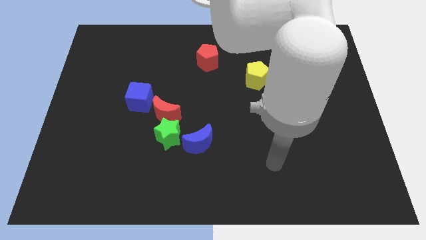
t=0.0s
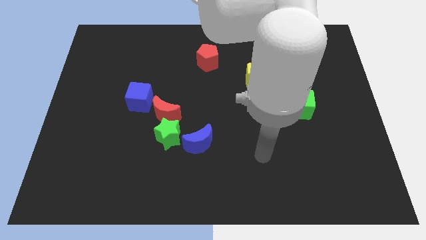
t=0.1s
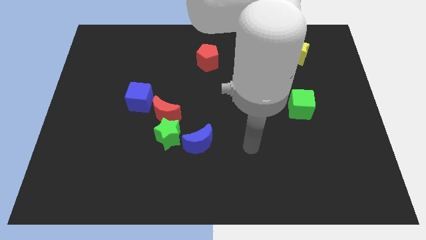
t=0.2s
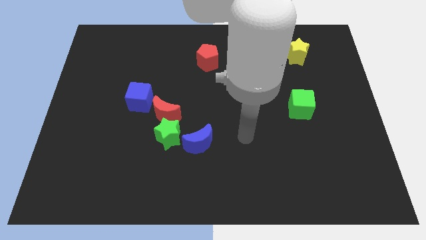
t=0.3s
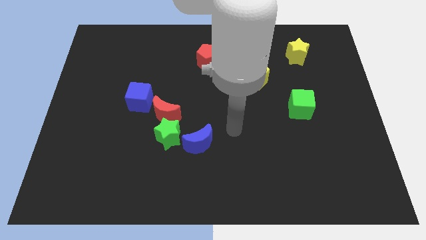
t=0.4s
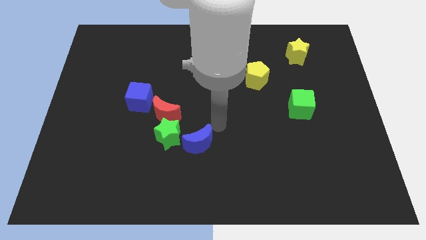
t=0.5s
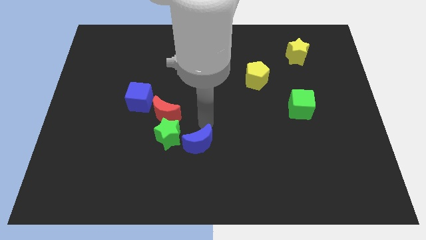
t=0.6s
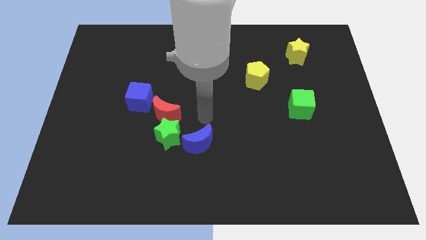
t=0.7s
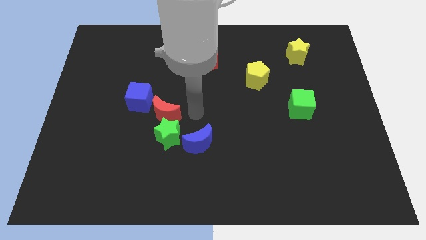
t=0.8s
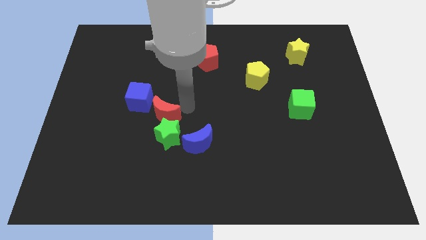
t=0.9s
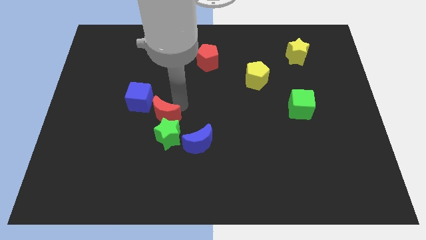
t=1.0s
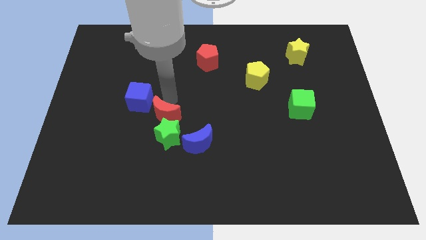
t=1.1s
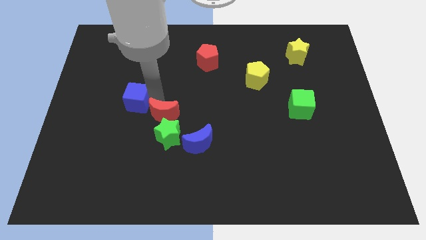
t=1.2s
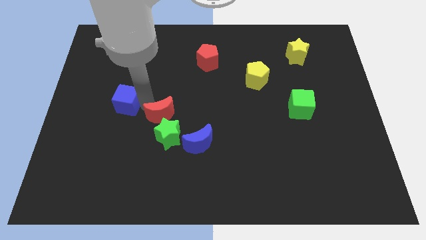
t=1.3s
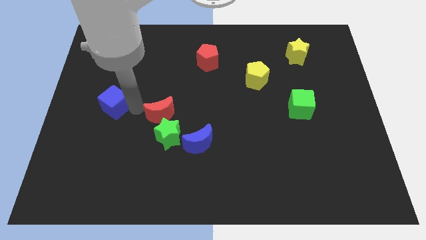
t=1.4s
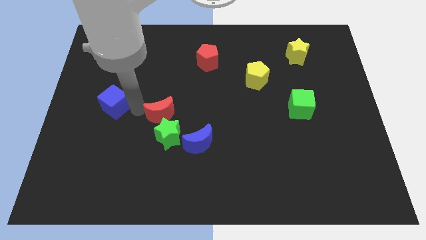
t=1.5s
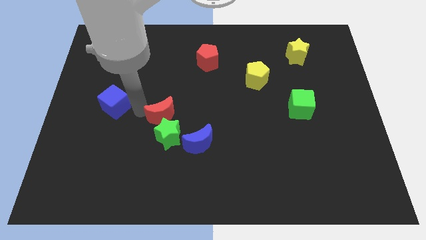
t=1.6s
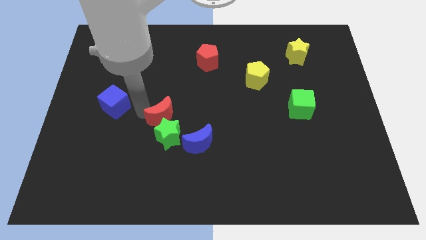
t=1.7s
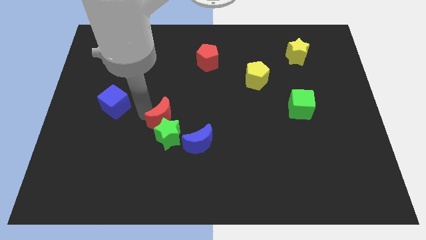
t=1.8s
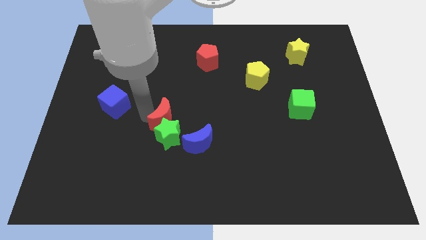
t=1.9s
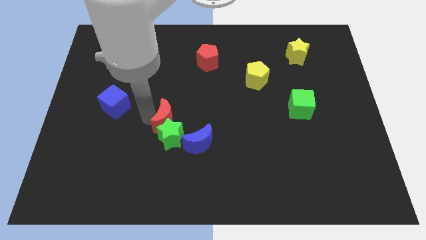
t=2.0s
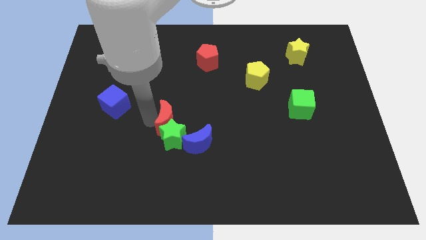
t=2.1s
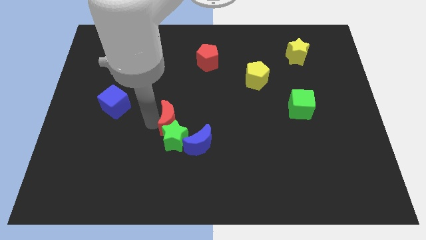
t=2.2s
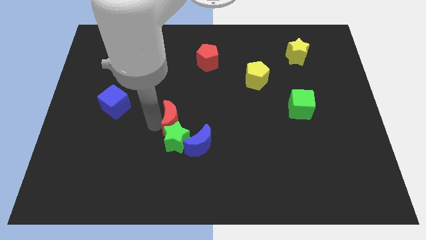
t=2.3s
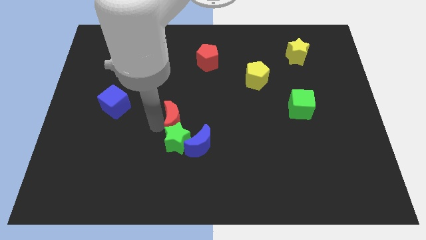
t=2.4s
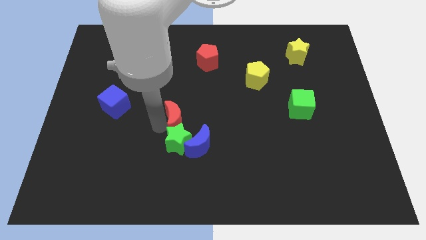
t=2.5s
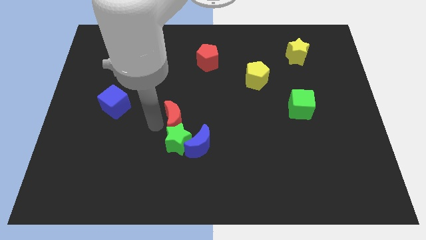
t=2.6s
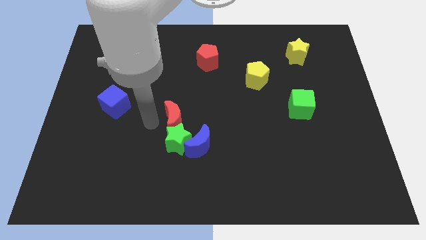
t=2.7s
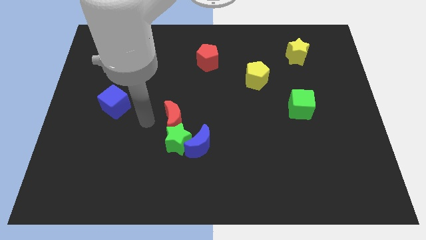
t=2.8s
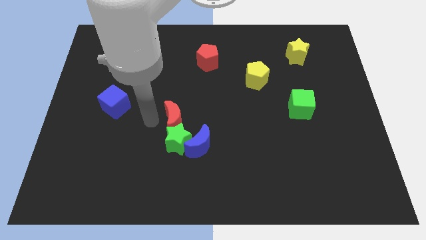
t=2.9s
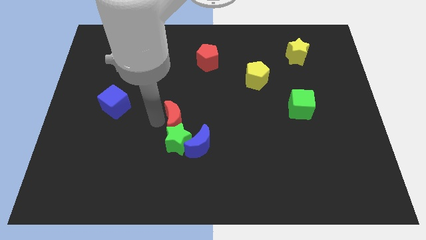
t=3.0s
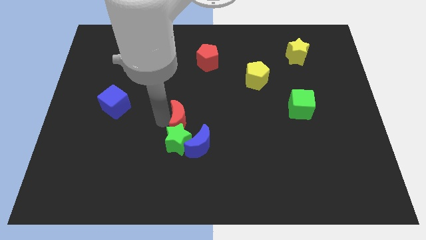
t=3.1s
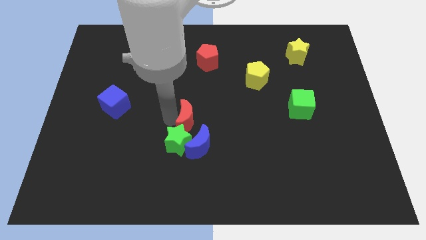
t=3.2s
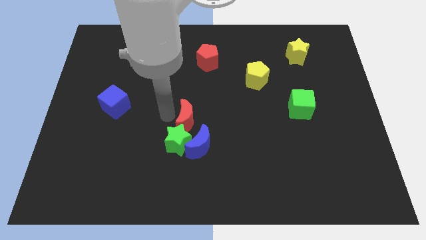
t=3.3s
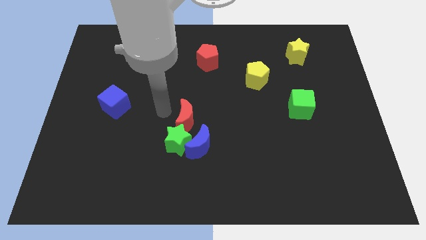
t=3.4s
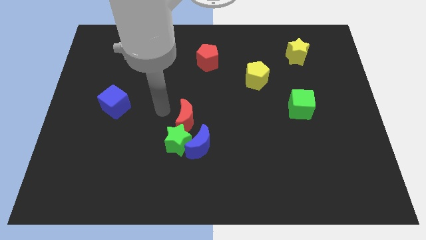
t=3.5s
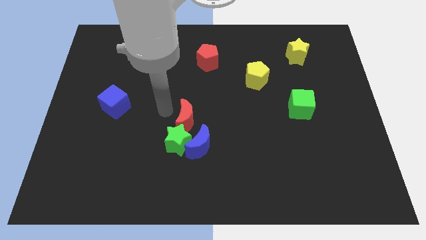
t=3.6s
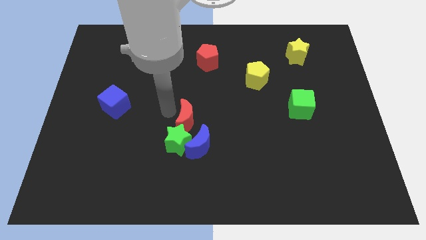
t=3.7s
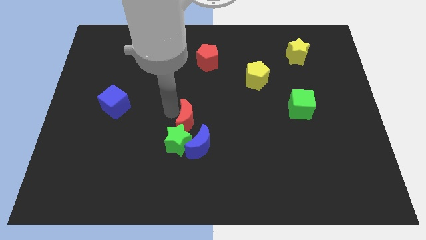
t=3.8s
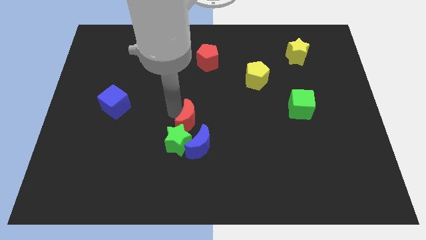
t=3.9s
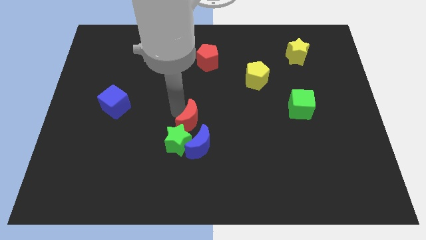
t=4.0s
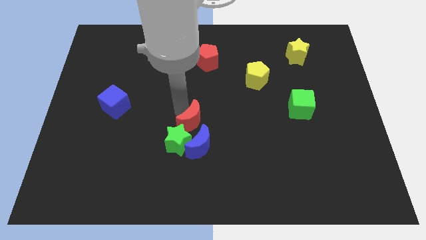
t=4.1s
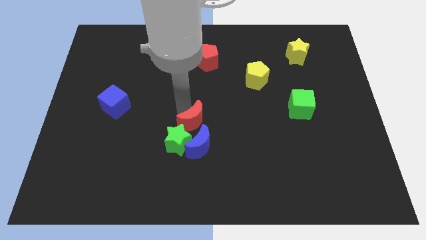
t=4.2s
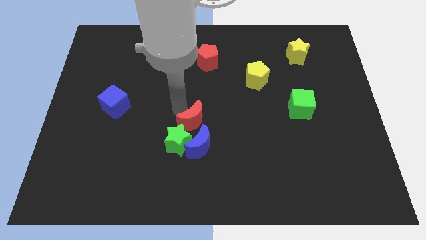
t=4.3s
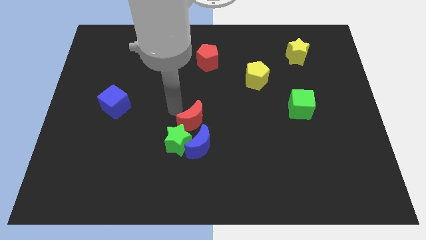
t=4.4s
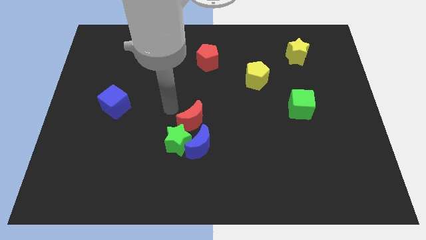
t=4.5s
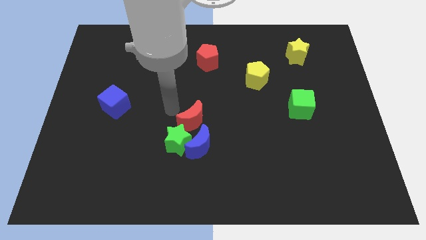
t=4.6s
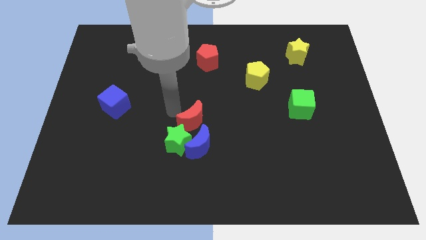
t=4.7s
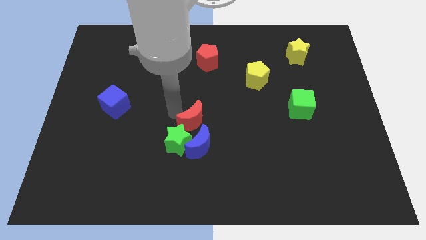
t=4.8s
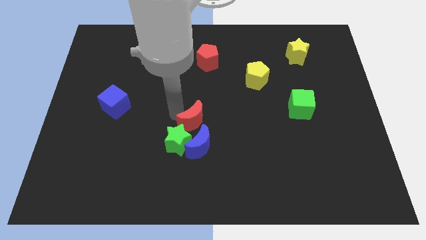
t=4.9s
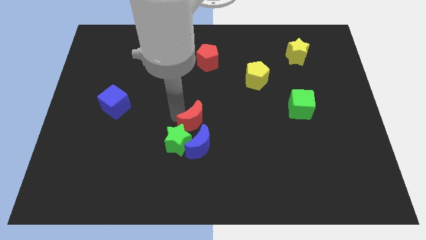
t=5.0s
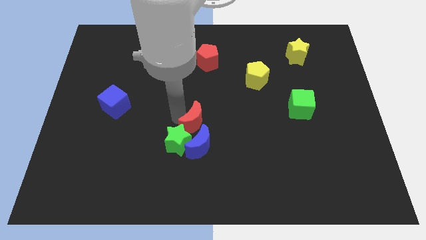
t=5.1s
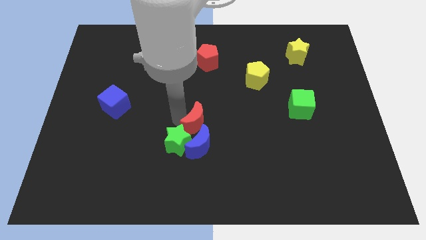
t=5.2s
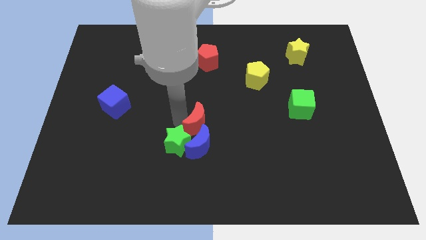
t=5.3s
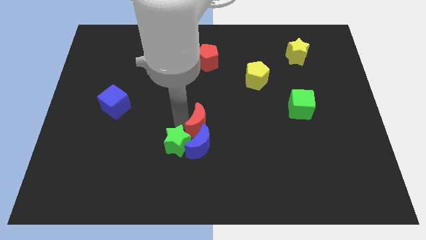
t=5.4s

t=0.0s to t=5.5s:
slide the red moon down and to the right a little bit

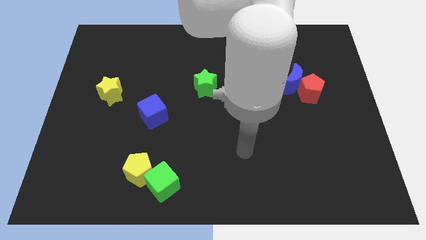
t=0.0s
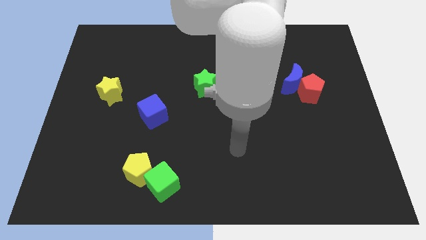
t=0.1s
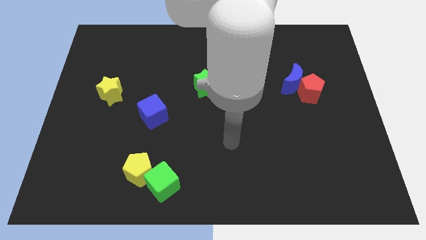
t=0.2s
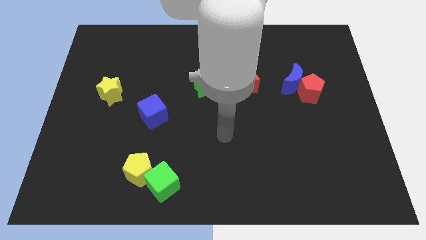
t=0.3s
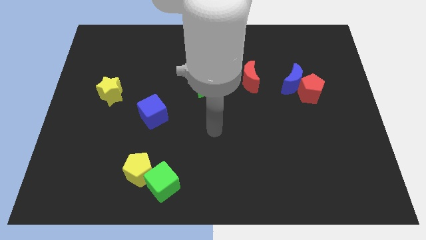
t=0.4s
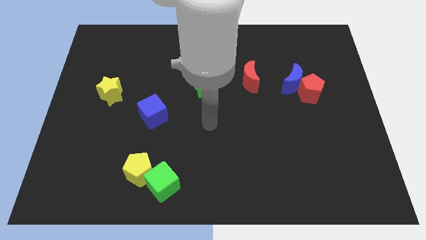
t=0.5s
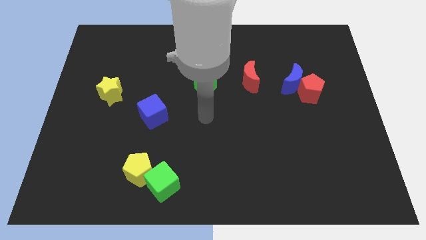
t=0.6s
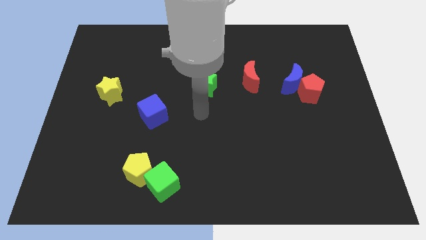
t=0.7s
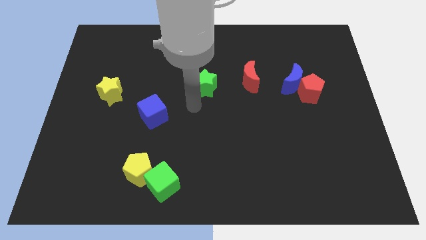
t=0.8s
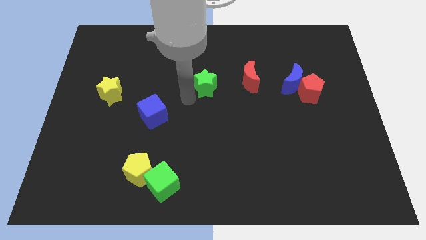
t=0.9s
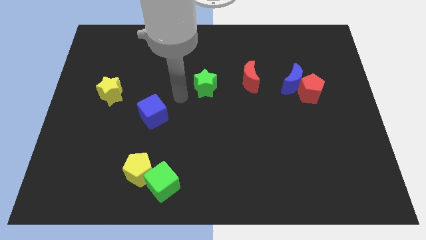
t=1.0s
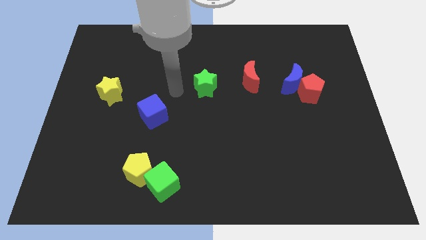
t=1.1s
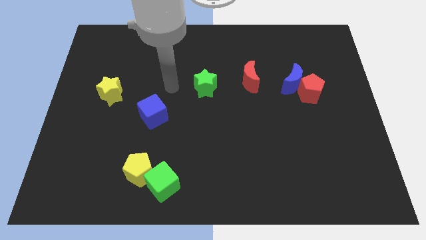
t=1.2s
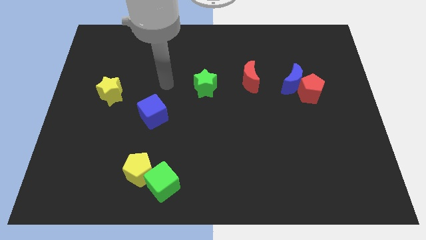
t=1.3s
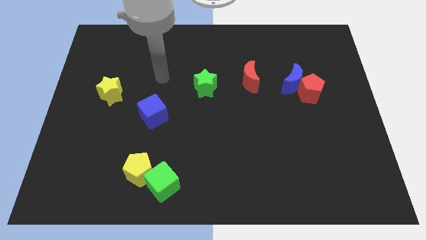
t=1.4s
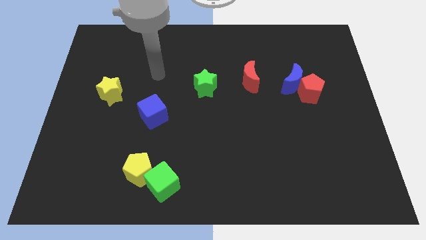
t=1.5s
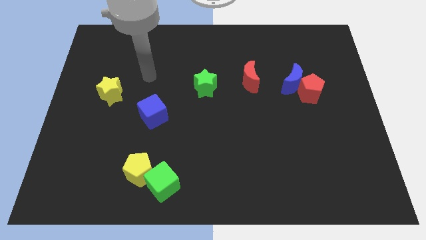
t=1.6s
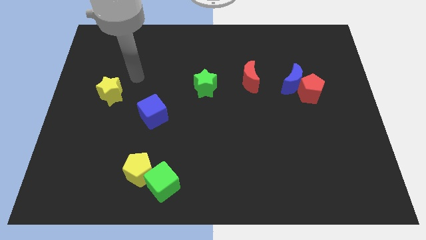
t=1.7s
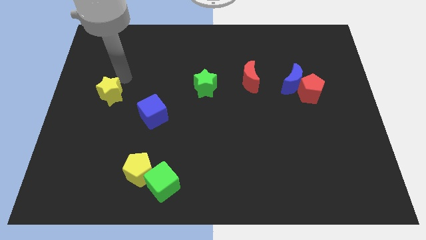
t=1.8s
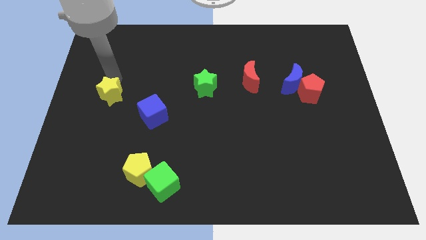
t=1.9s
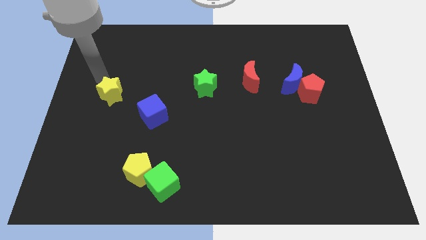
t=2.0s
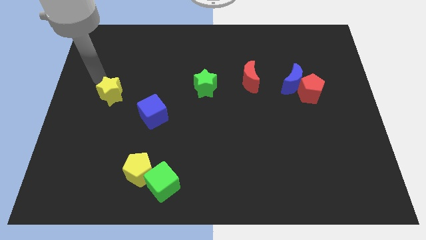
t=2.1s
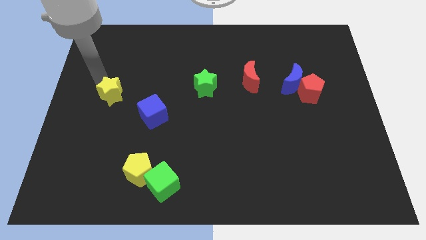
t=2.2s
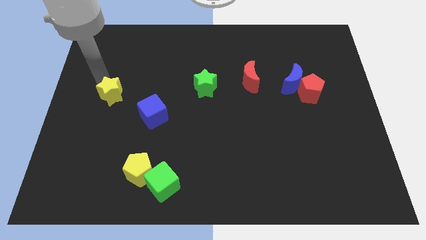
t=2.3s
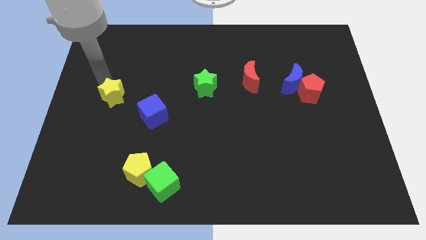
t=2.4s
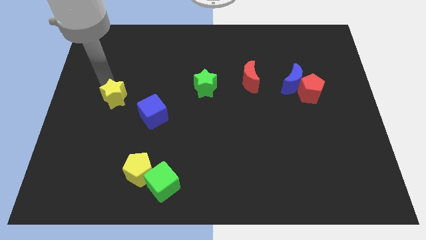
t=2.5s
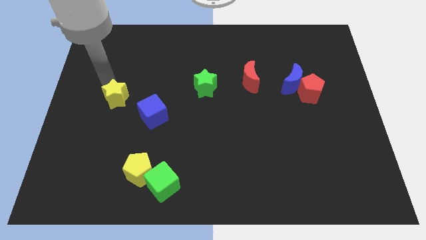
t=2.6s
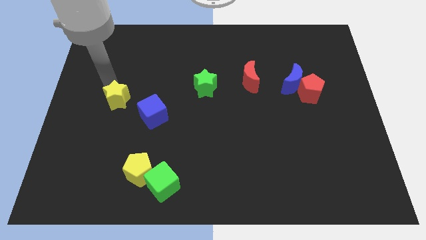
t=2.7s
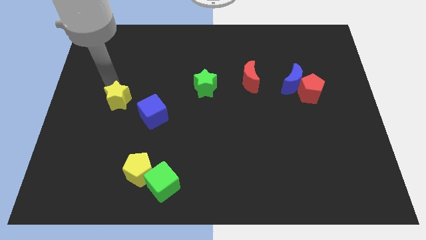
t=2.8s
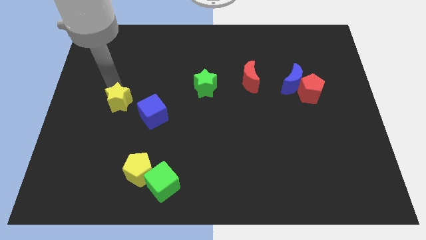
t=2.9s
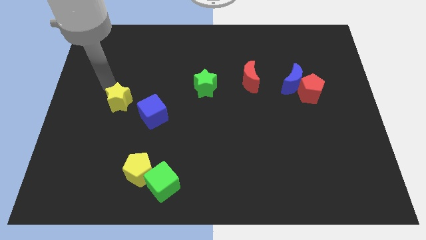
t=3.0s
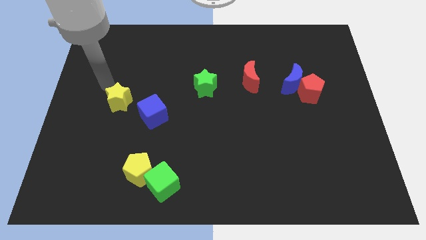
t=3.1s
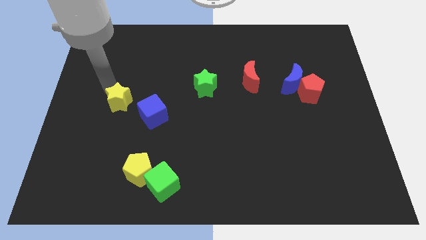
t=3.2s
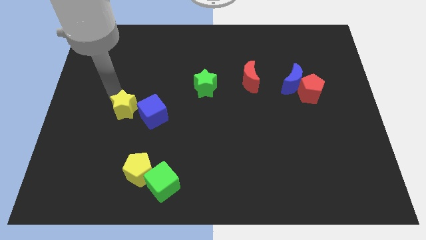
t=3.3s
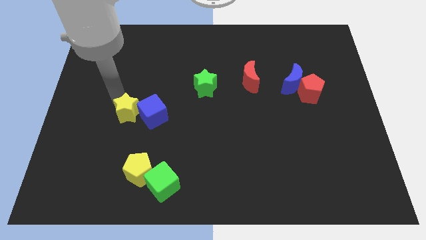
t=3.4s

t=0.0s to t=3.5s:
slide the yellow star a little downwards and right diagonally
